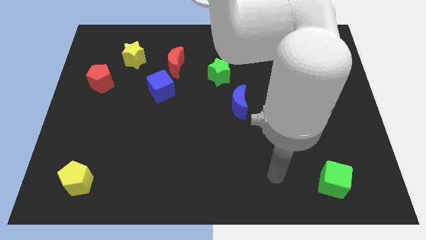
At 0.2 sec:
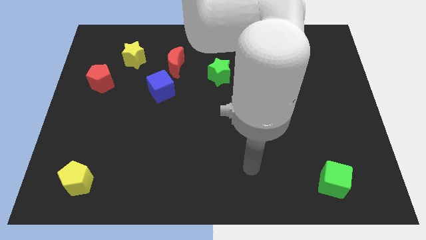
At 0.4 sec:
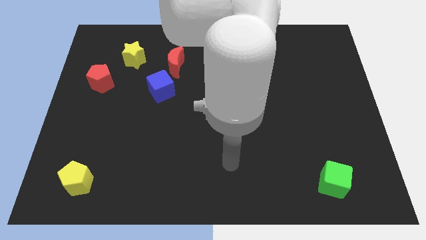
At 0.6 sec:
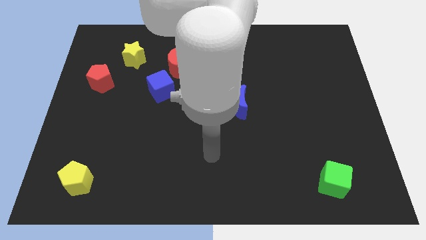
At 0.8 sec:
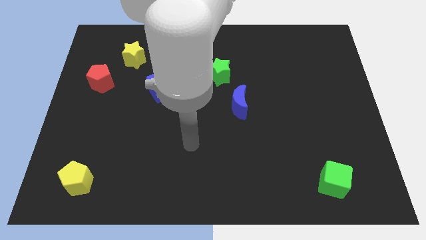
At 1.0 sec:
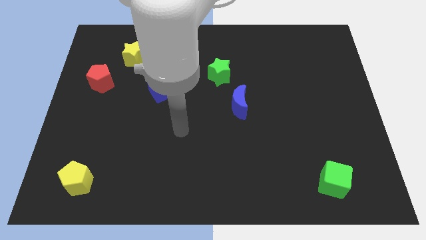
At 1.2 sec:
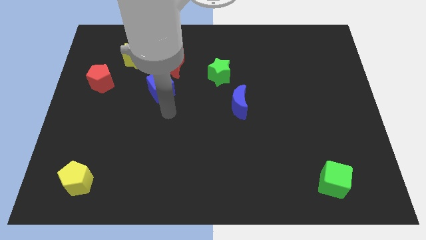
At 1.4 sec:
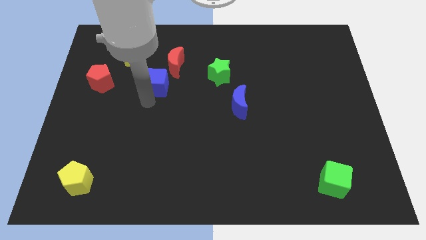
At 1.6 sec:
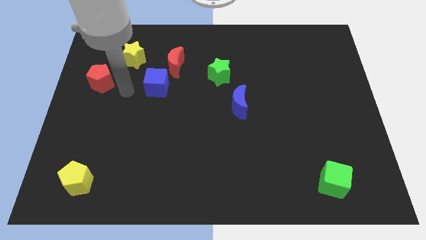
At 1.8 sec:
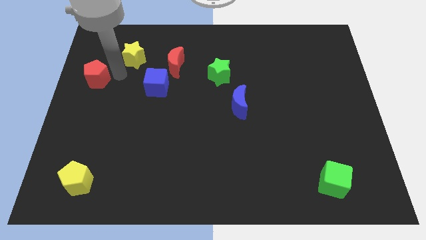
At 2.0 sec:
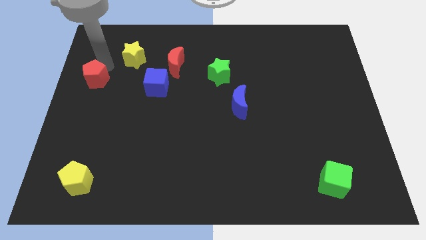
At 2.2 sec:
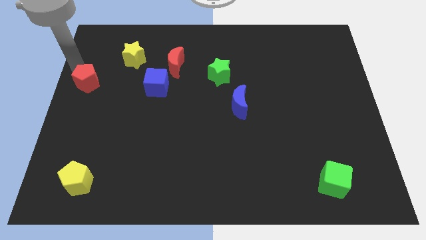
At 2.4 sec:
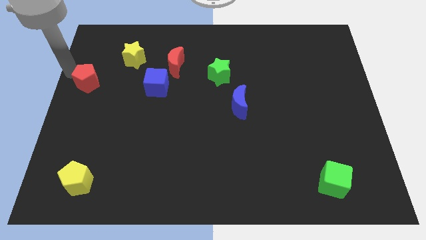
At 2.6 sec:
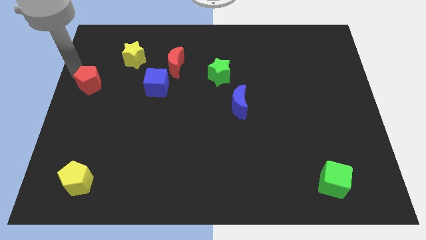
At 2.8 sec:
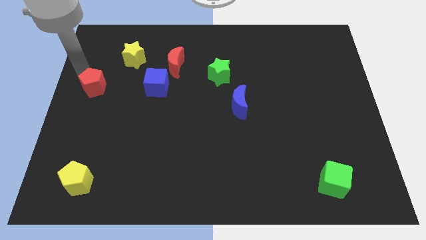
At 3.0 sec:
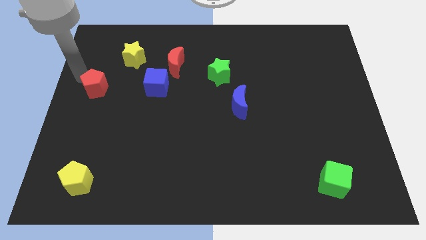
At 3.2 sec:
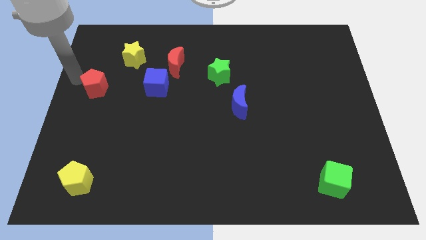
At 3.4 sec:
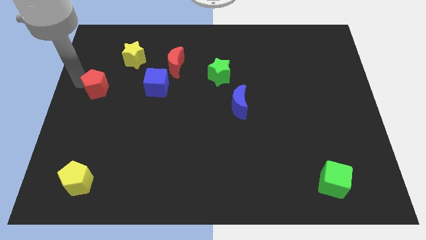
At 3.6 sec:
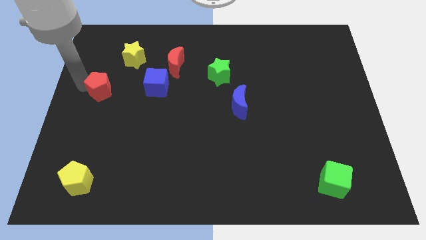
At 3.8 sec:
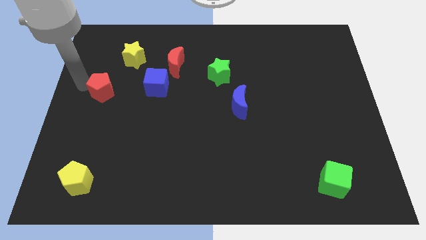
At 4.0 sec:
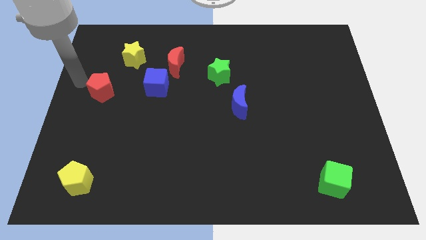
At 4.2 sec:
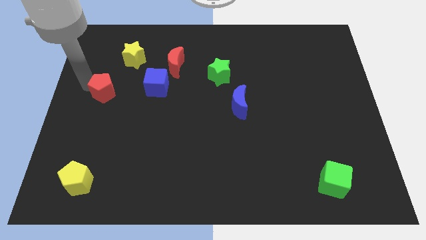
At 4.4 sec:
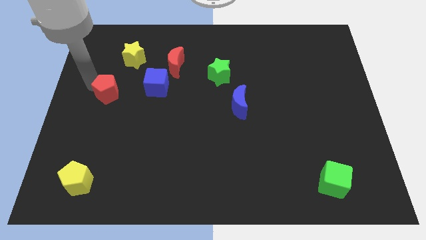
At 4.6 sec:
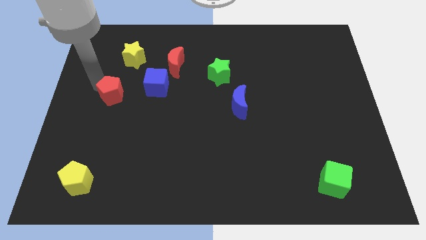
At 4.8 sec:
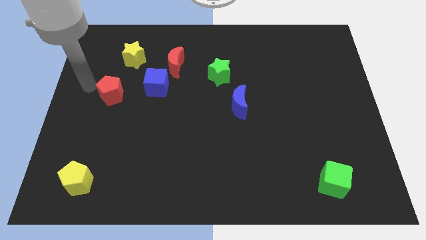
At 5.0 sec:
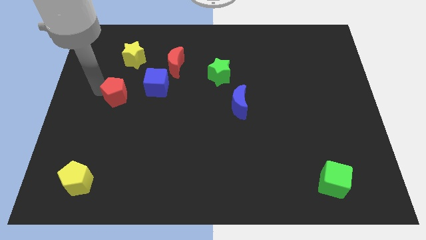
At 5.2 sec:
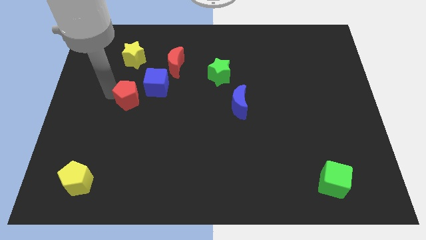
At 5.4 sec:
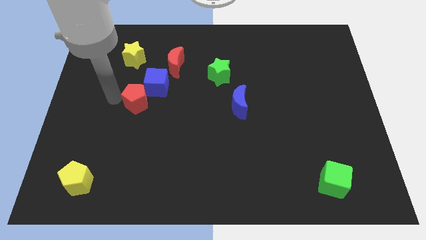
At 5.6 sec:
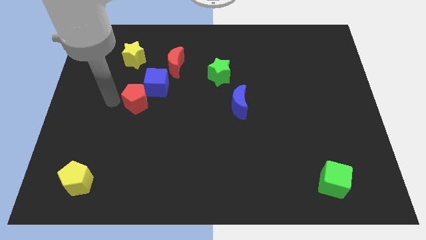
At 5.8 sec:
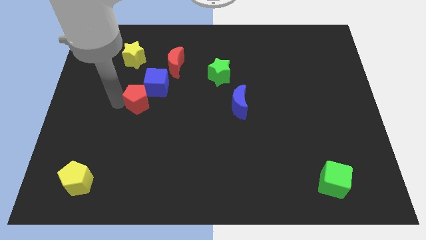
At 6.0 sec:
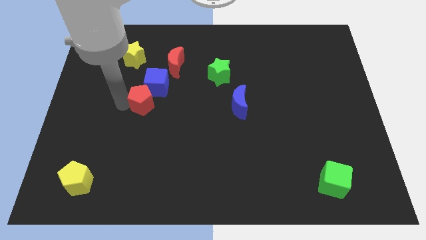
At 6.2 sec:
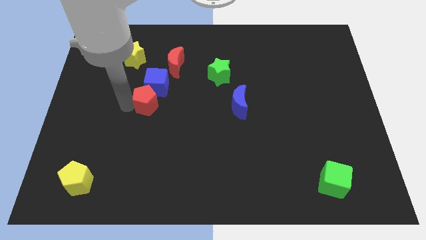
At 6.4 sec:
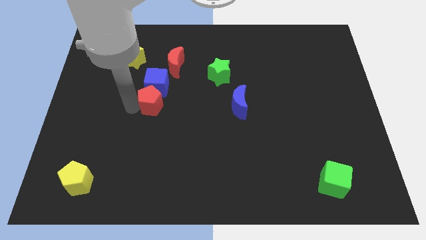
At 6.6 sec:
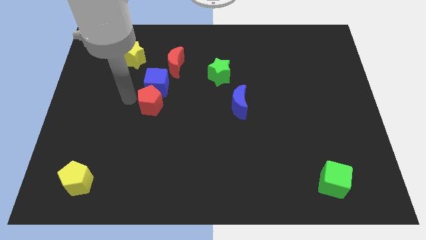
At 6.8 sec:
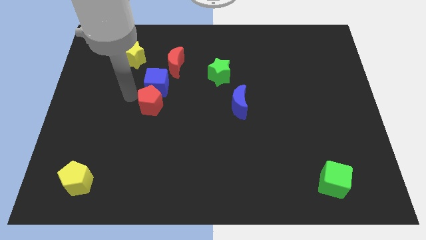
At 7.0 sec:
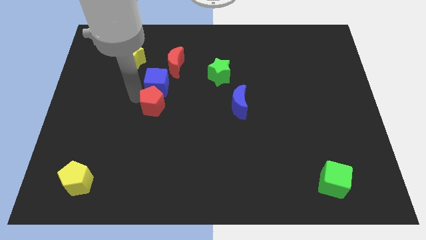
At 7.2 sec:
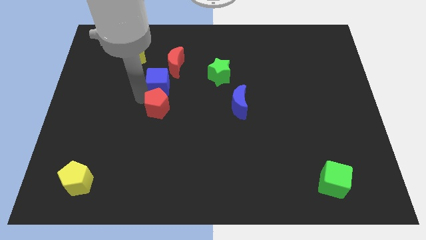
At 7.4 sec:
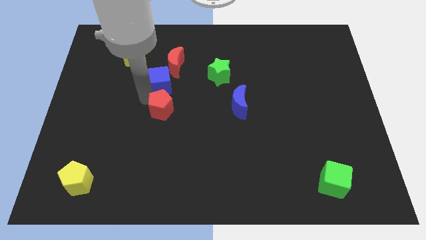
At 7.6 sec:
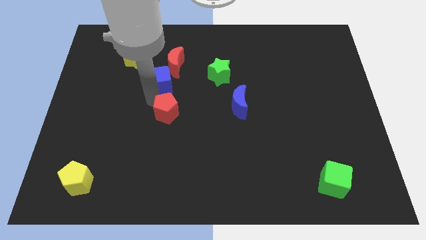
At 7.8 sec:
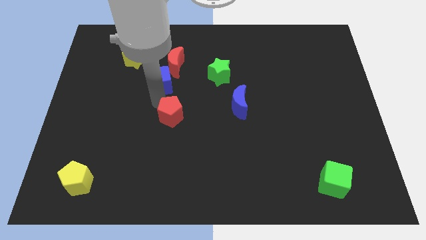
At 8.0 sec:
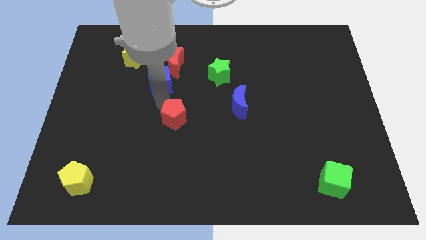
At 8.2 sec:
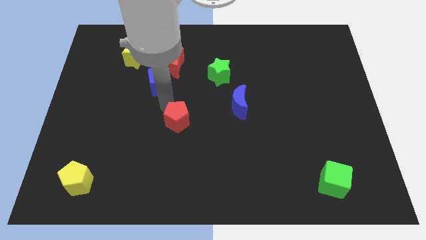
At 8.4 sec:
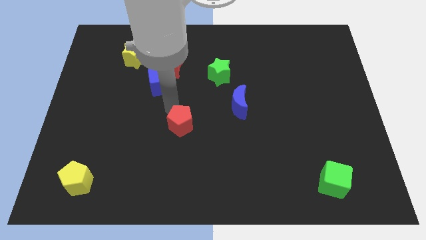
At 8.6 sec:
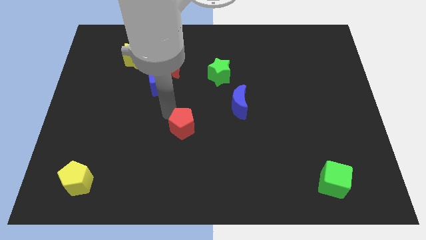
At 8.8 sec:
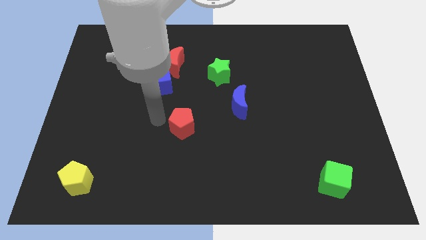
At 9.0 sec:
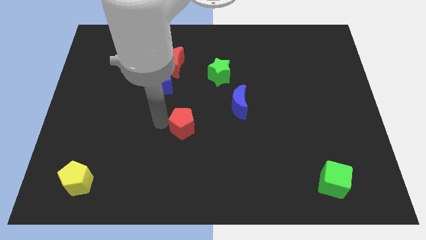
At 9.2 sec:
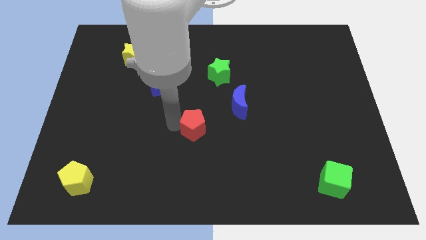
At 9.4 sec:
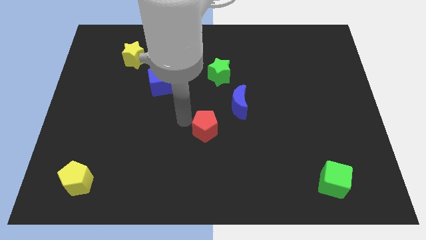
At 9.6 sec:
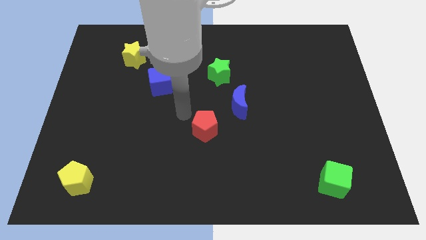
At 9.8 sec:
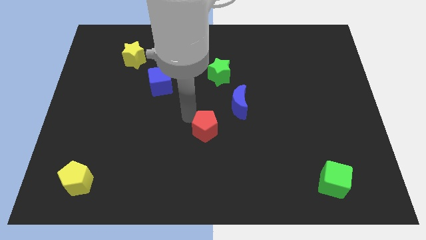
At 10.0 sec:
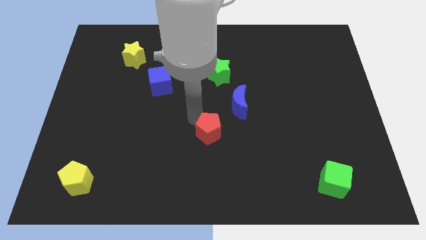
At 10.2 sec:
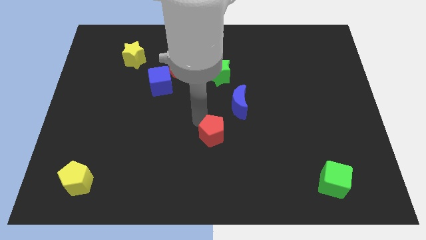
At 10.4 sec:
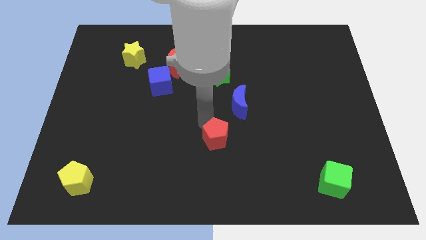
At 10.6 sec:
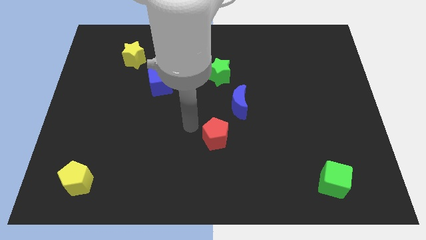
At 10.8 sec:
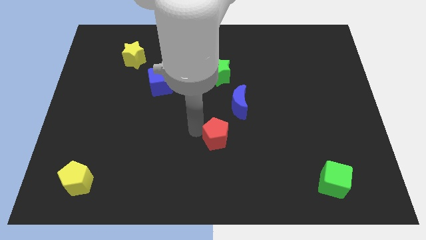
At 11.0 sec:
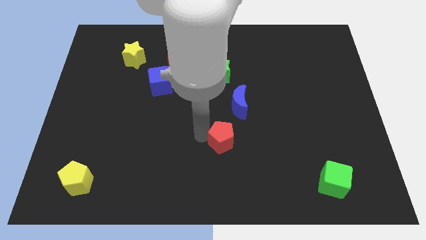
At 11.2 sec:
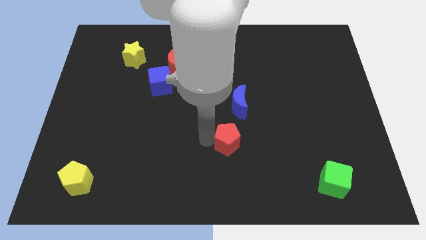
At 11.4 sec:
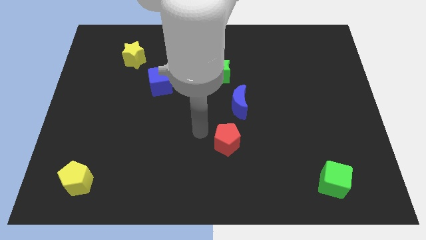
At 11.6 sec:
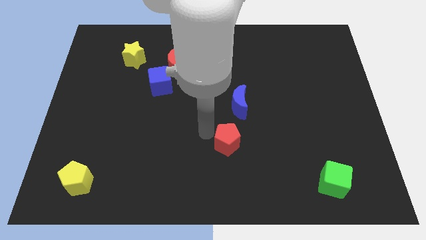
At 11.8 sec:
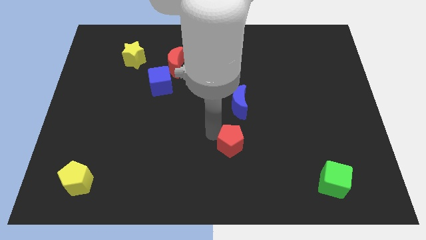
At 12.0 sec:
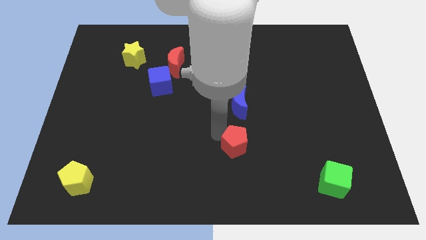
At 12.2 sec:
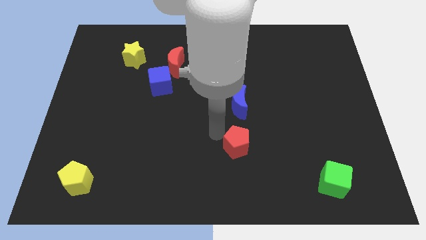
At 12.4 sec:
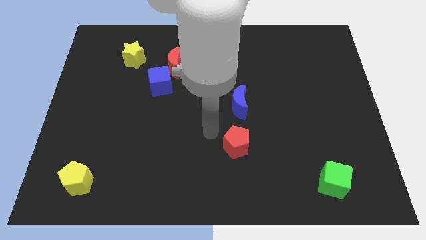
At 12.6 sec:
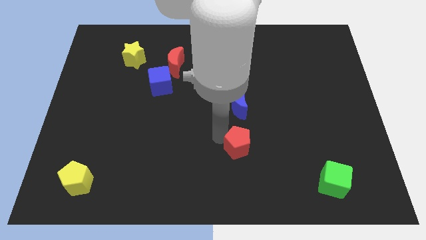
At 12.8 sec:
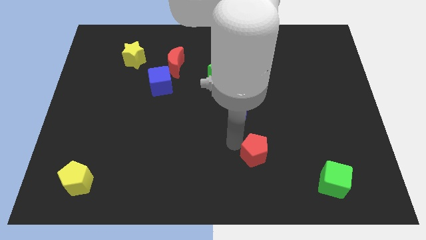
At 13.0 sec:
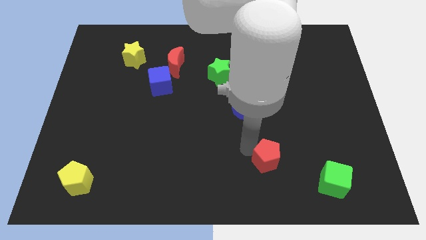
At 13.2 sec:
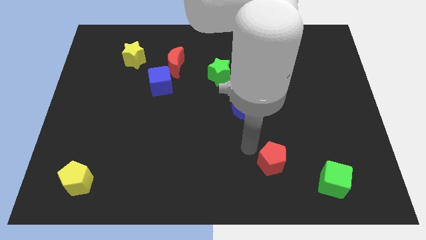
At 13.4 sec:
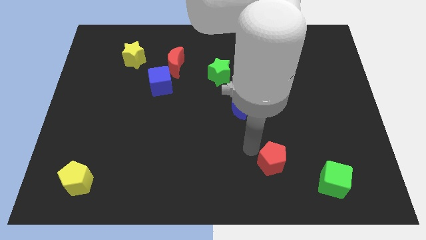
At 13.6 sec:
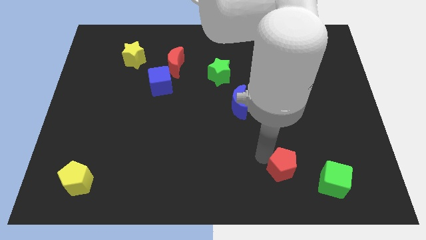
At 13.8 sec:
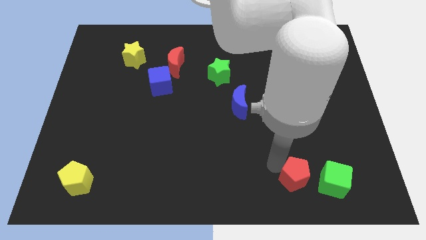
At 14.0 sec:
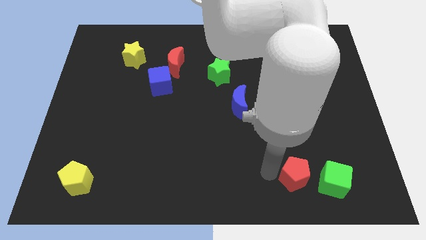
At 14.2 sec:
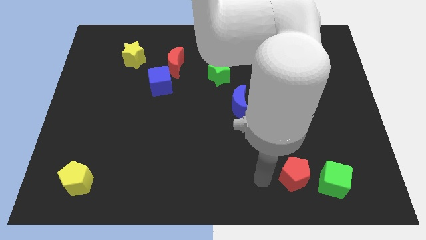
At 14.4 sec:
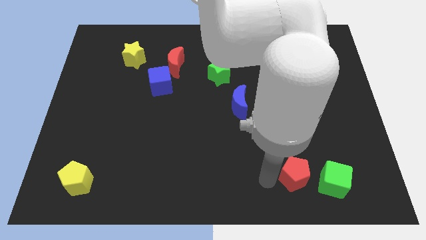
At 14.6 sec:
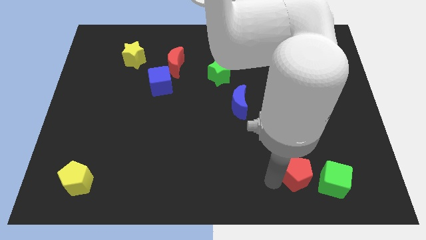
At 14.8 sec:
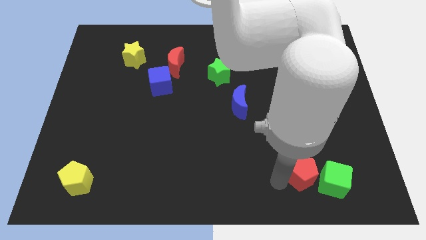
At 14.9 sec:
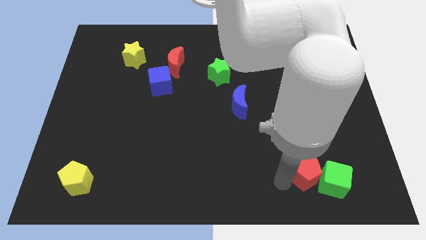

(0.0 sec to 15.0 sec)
move the red pentagon towards the green cube
